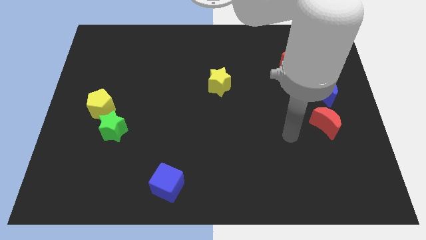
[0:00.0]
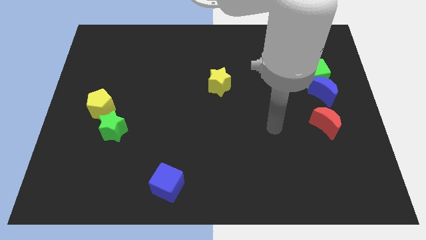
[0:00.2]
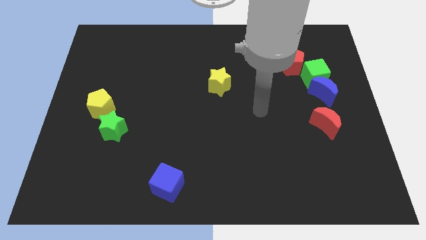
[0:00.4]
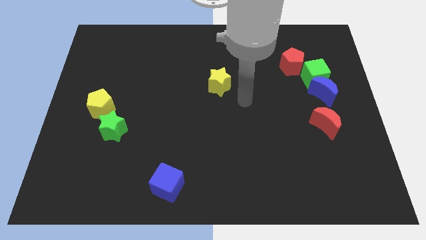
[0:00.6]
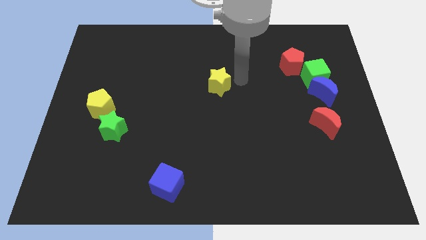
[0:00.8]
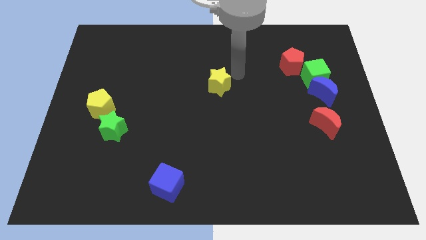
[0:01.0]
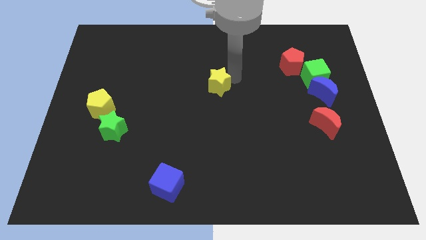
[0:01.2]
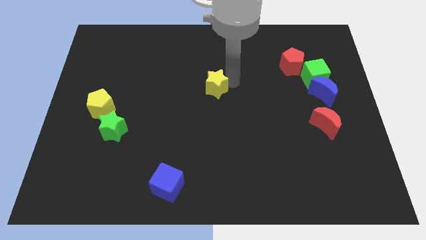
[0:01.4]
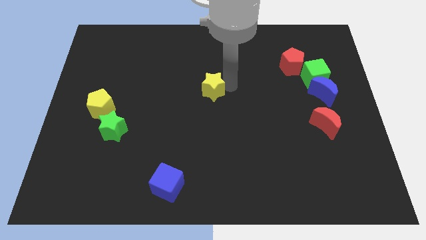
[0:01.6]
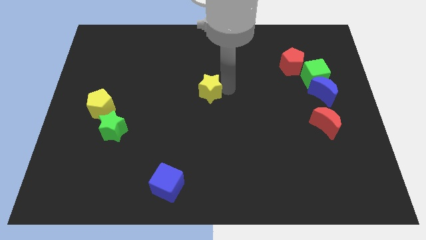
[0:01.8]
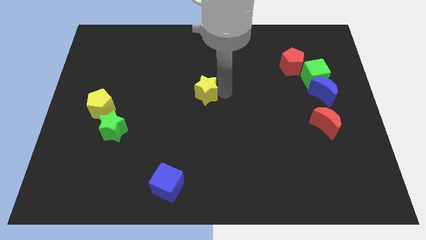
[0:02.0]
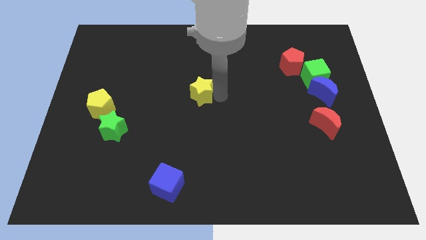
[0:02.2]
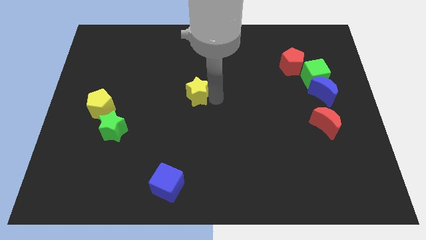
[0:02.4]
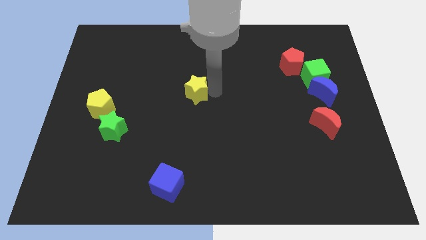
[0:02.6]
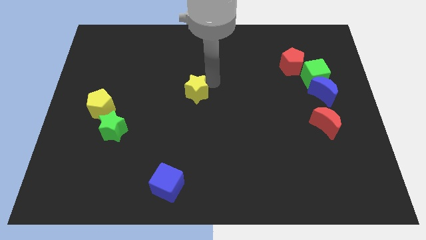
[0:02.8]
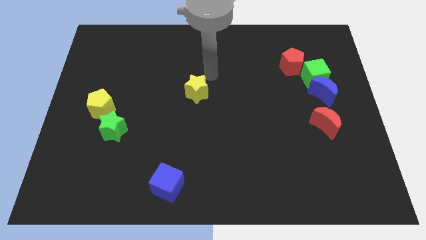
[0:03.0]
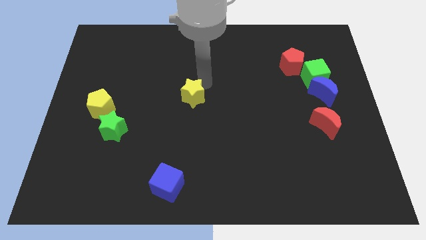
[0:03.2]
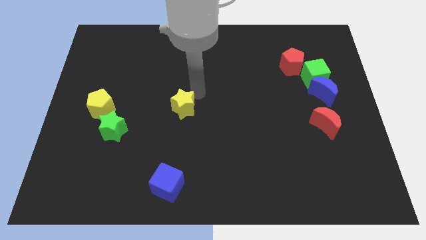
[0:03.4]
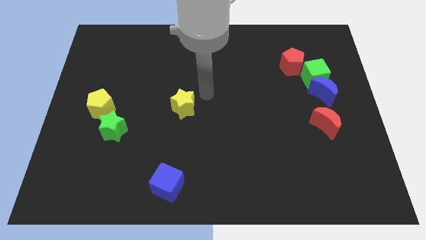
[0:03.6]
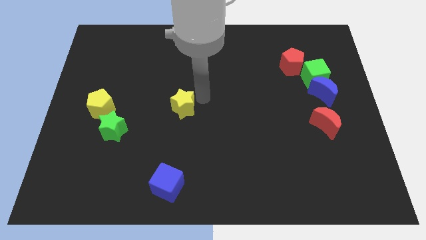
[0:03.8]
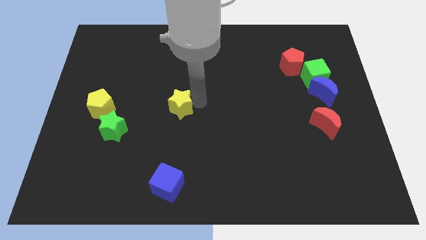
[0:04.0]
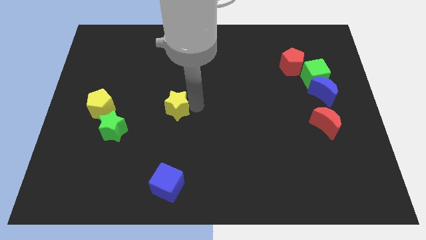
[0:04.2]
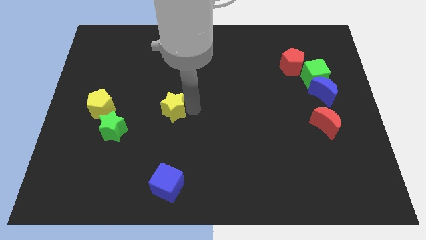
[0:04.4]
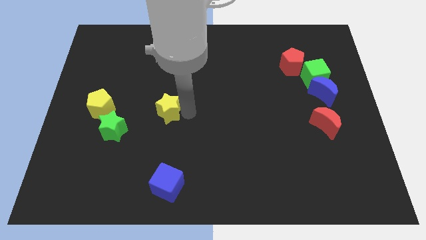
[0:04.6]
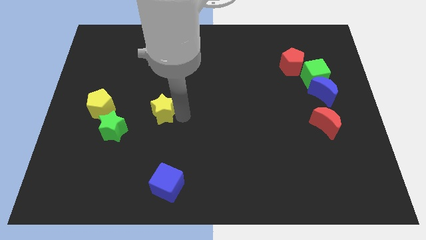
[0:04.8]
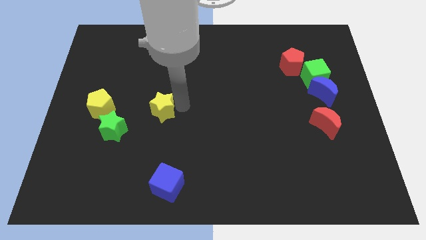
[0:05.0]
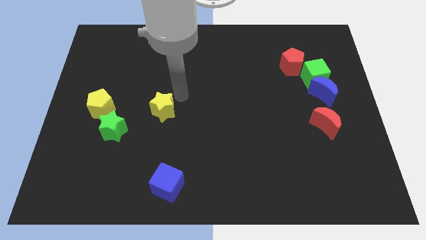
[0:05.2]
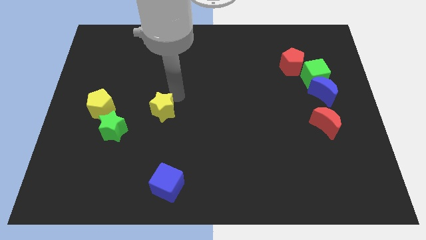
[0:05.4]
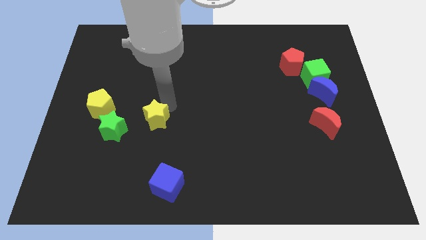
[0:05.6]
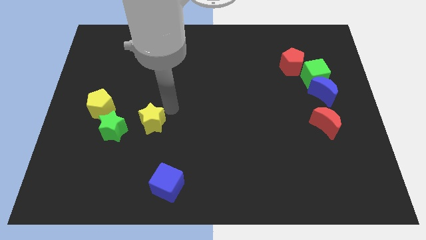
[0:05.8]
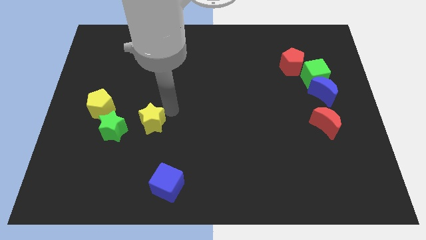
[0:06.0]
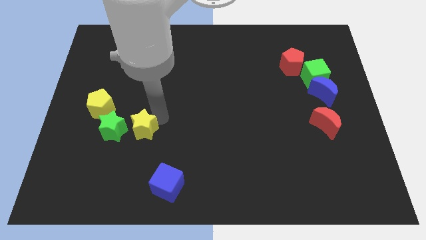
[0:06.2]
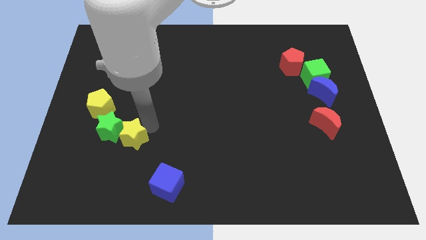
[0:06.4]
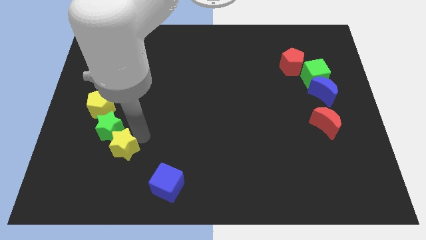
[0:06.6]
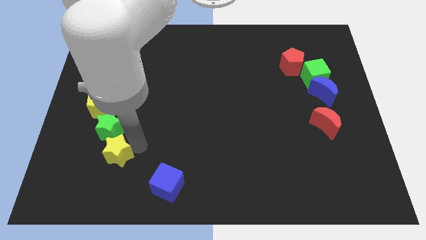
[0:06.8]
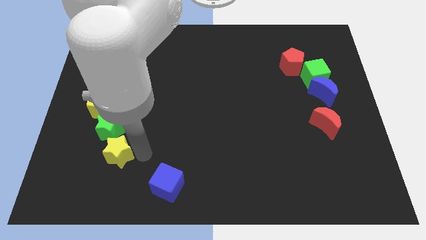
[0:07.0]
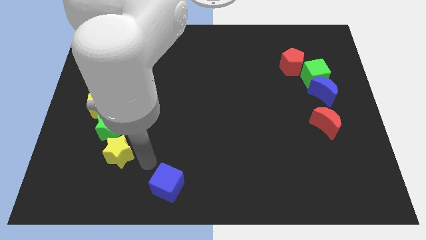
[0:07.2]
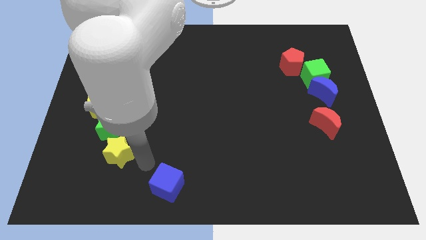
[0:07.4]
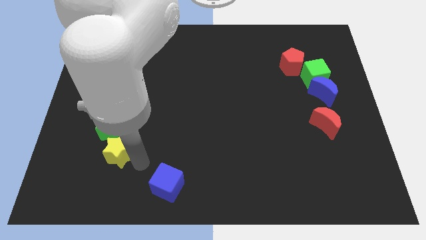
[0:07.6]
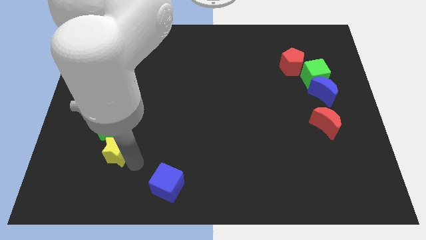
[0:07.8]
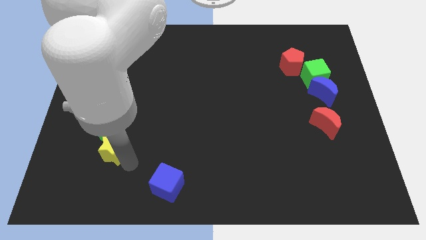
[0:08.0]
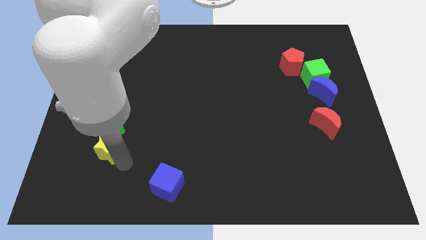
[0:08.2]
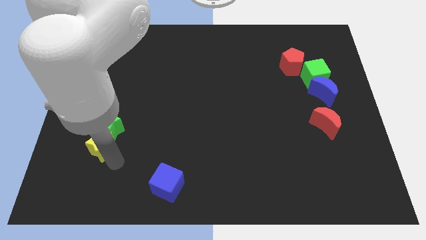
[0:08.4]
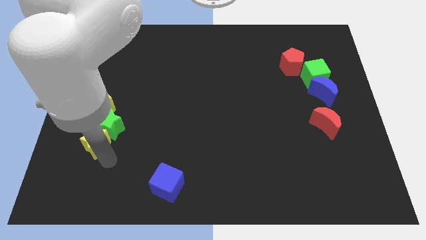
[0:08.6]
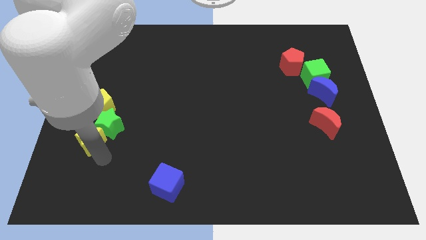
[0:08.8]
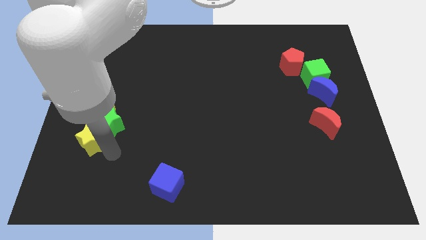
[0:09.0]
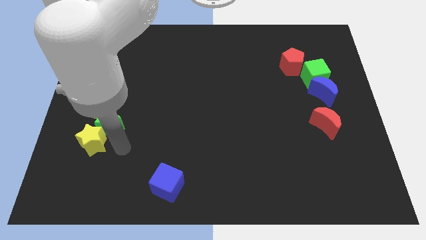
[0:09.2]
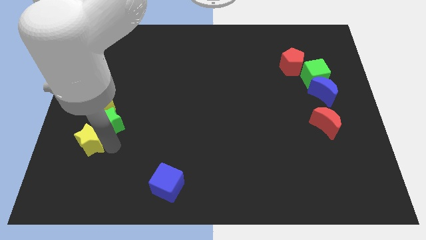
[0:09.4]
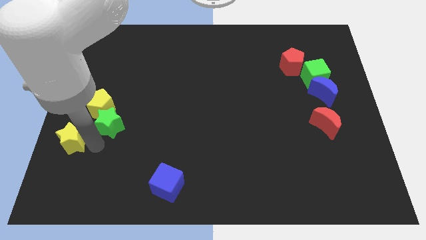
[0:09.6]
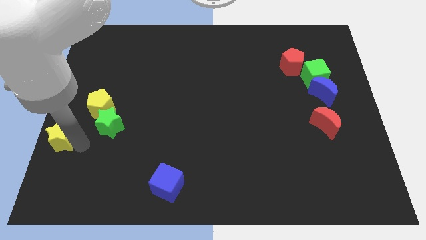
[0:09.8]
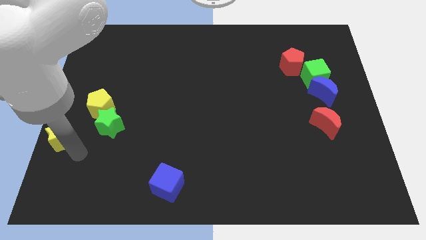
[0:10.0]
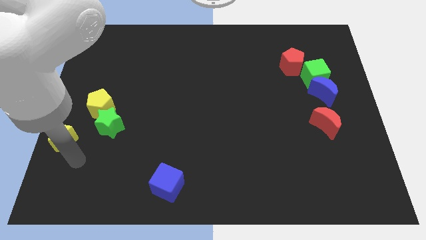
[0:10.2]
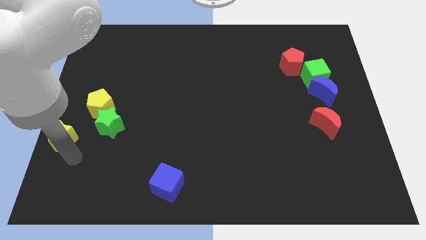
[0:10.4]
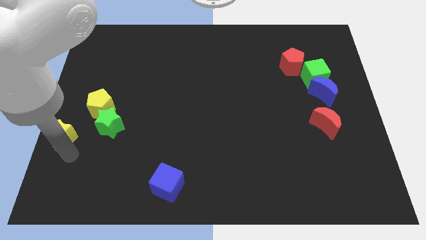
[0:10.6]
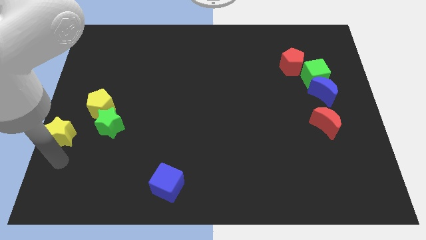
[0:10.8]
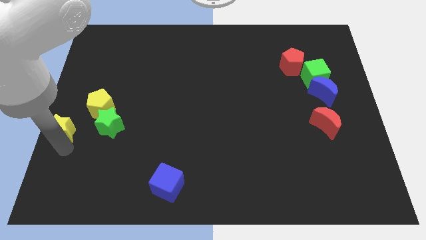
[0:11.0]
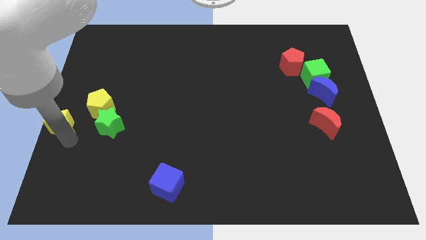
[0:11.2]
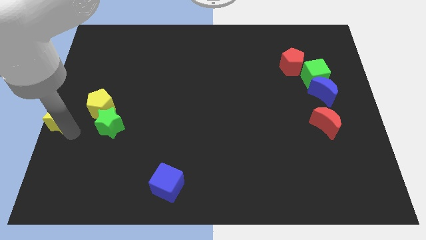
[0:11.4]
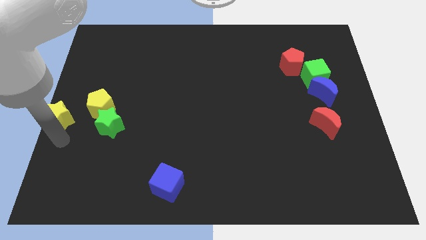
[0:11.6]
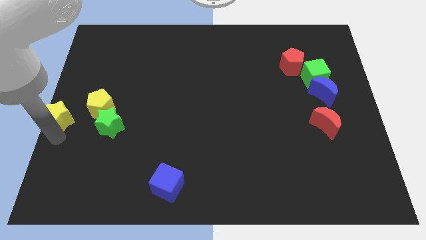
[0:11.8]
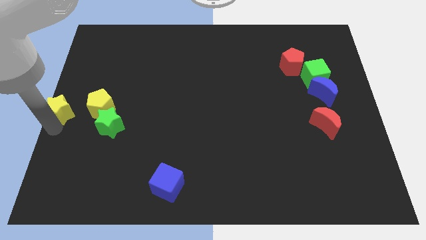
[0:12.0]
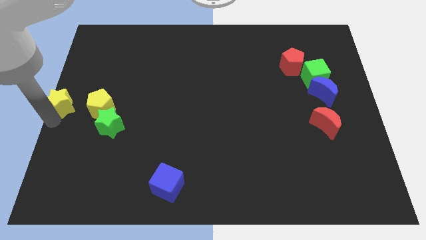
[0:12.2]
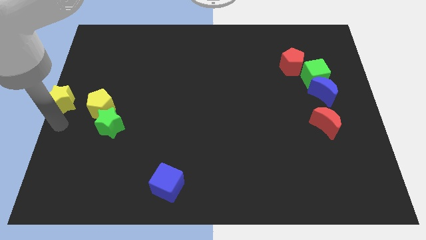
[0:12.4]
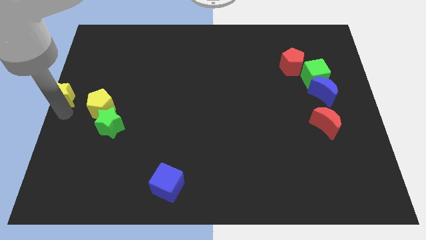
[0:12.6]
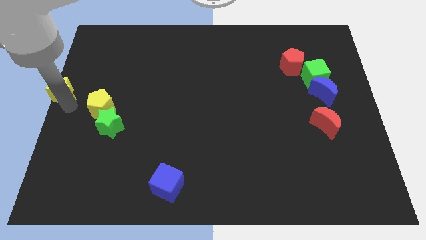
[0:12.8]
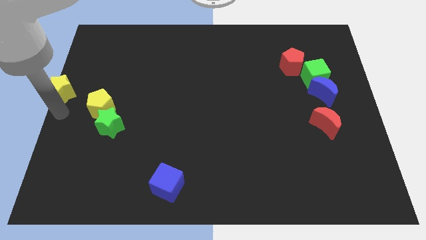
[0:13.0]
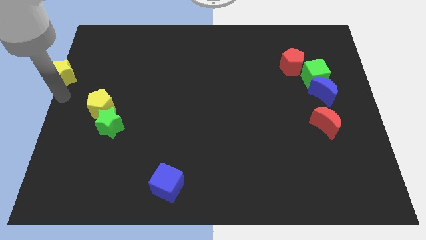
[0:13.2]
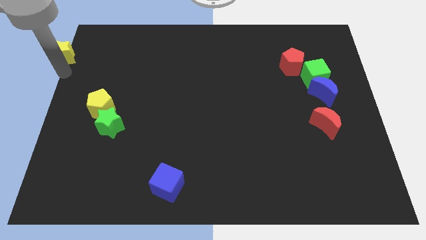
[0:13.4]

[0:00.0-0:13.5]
push the yellow star to the top left corner
